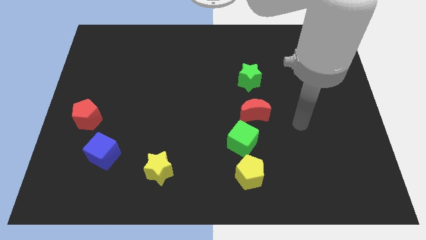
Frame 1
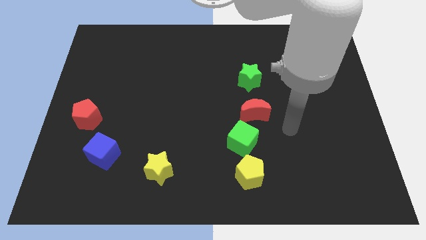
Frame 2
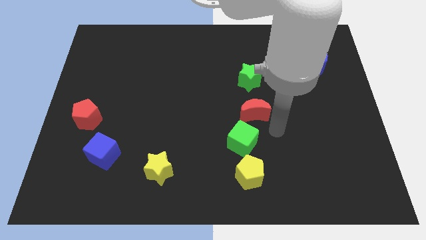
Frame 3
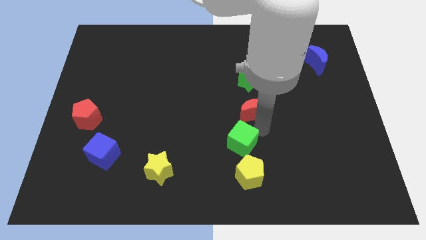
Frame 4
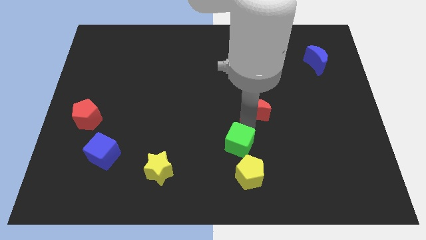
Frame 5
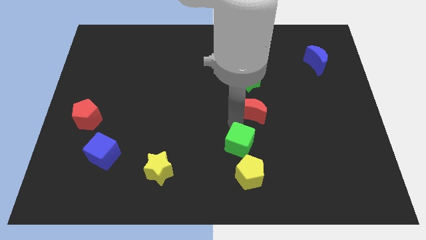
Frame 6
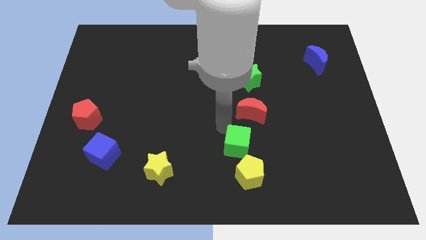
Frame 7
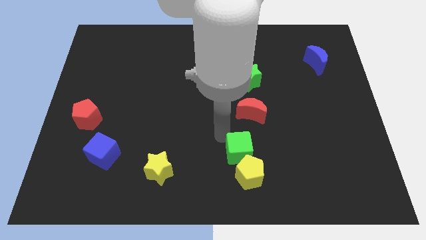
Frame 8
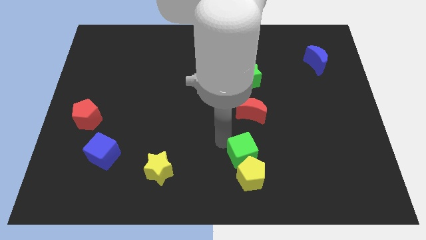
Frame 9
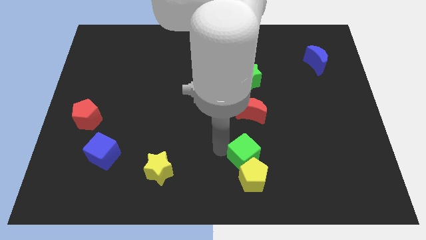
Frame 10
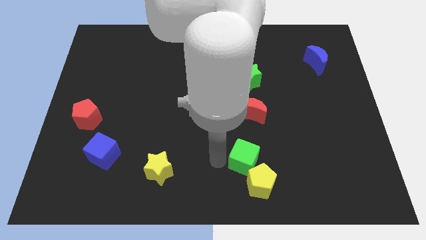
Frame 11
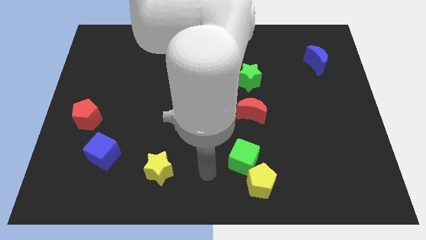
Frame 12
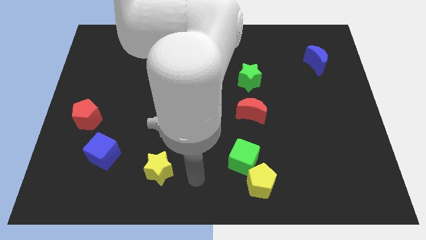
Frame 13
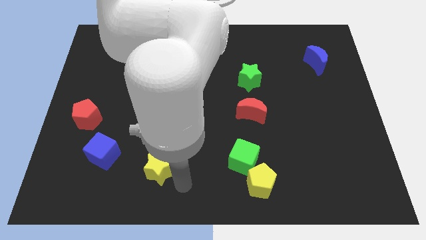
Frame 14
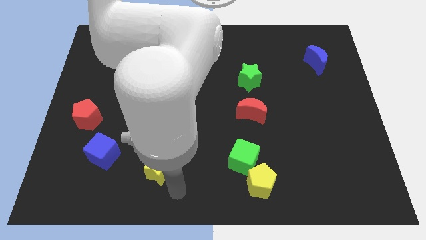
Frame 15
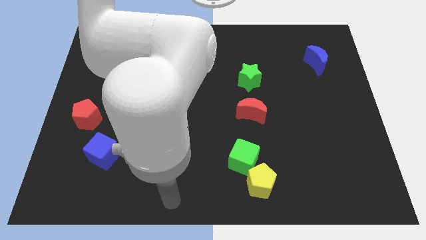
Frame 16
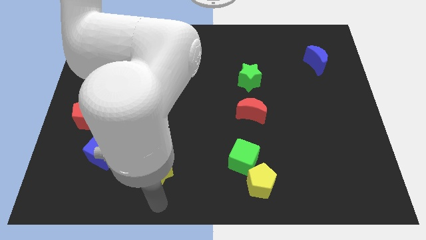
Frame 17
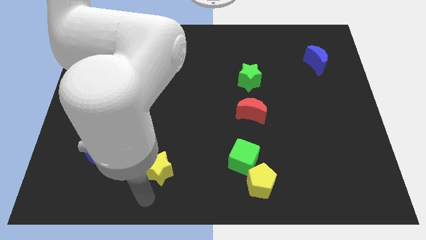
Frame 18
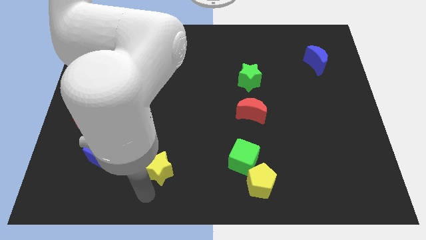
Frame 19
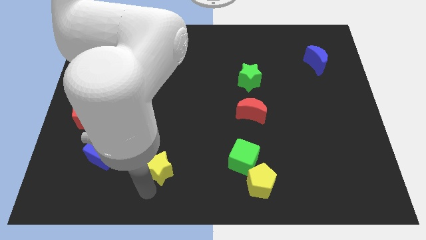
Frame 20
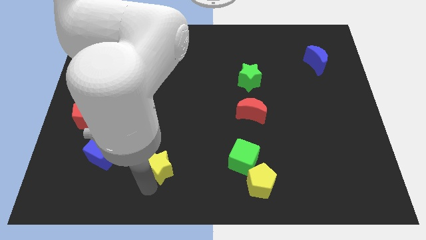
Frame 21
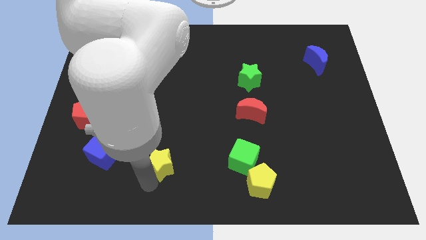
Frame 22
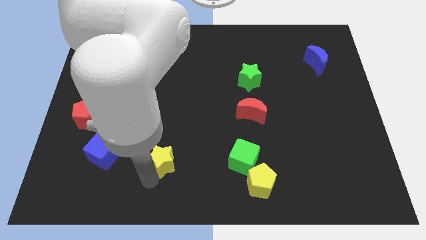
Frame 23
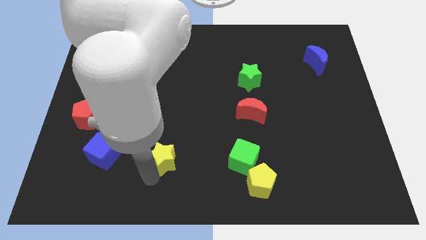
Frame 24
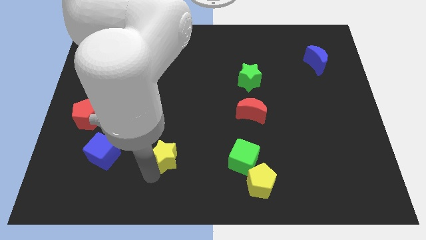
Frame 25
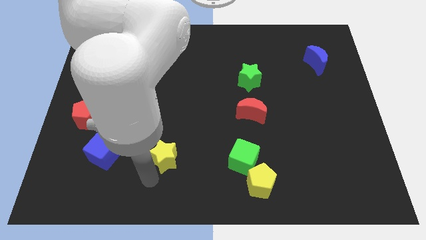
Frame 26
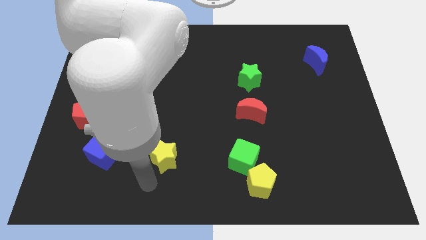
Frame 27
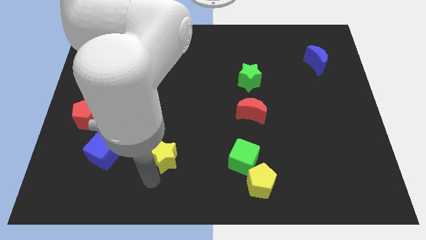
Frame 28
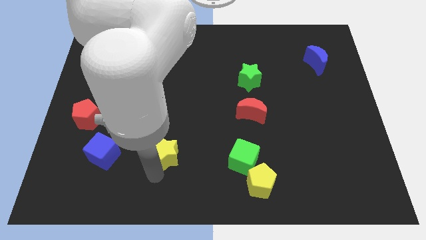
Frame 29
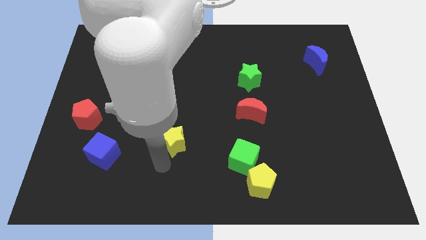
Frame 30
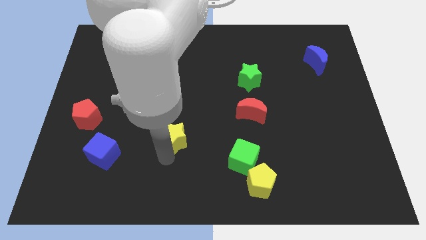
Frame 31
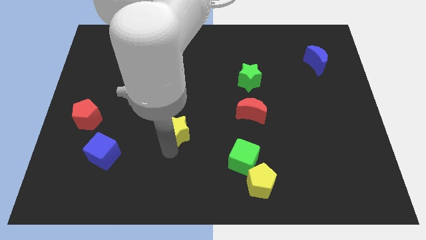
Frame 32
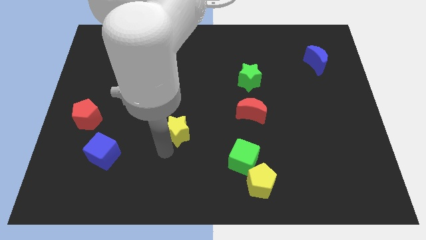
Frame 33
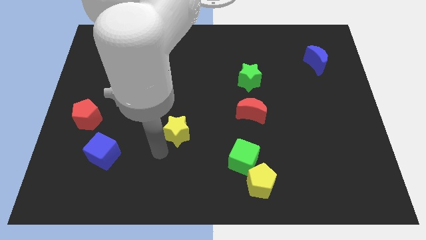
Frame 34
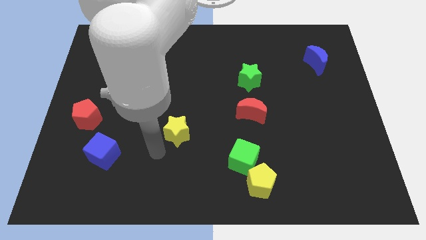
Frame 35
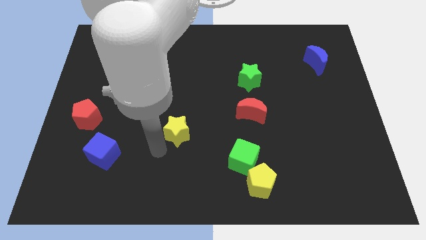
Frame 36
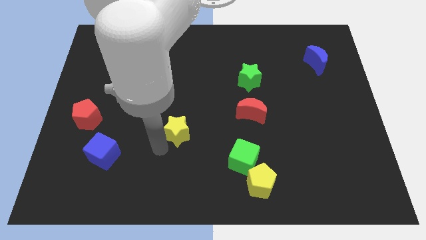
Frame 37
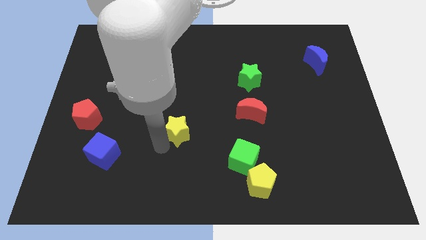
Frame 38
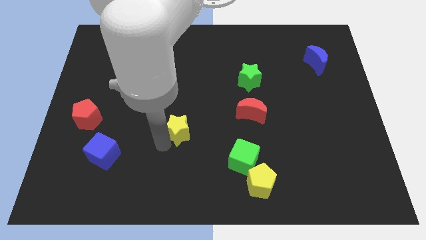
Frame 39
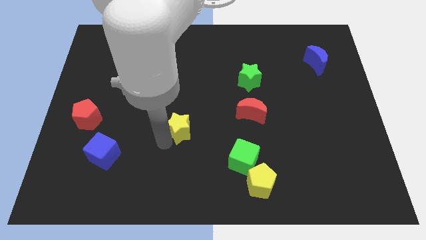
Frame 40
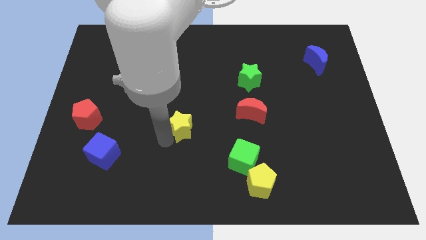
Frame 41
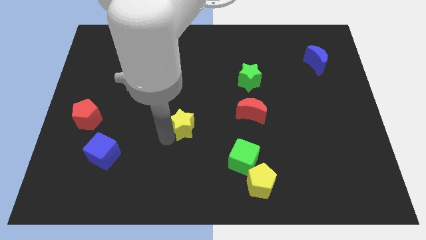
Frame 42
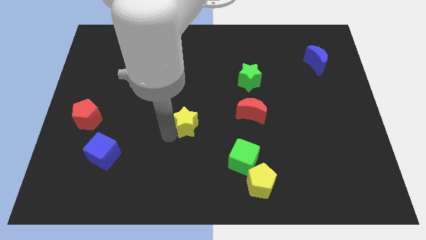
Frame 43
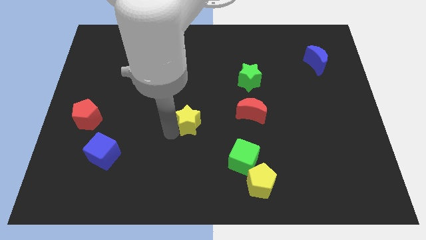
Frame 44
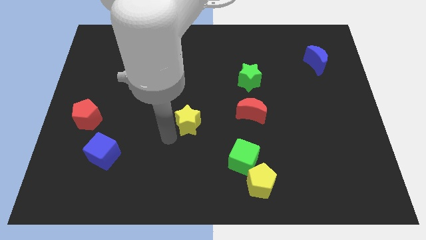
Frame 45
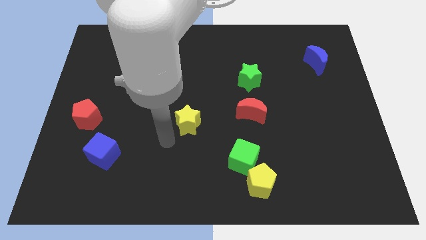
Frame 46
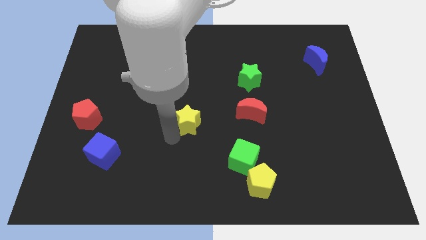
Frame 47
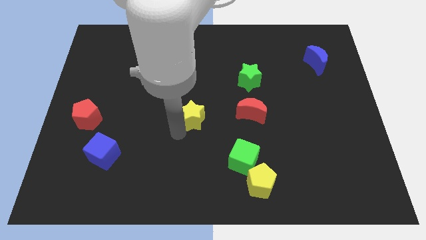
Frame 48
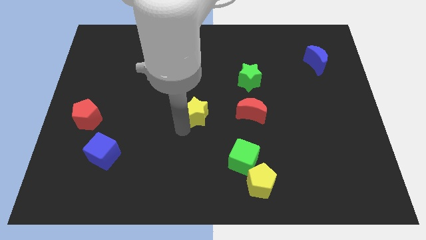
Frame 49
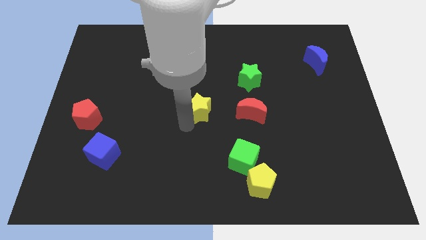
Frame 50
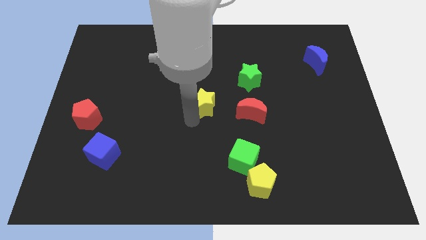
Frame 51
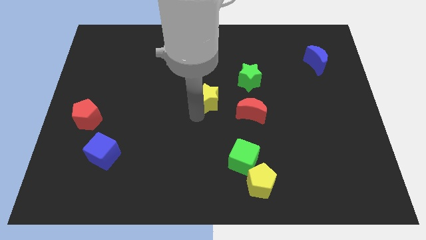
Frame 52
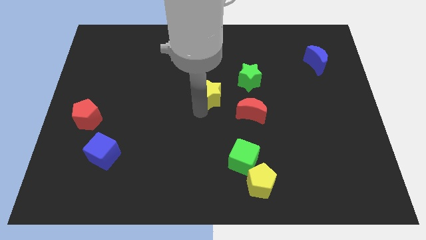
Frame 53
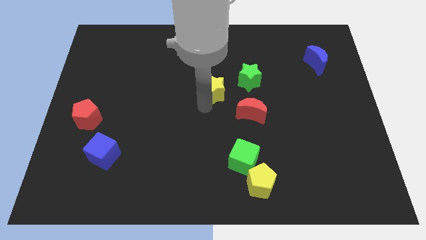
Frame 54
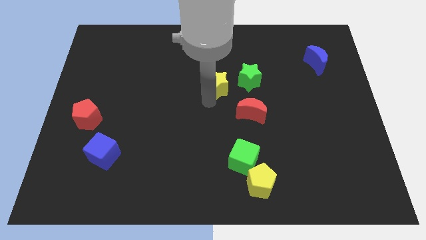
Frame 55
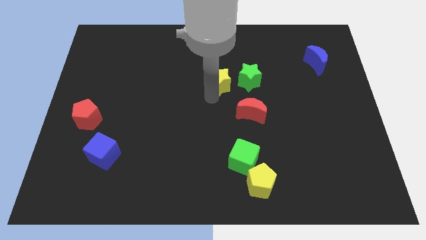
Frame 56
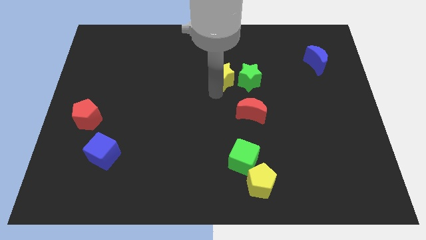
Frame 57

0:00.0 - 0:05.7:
move the yellow star to the top left side of the green star

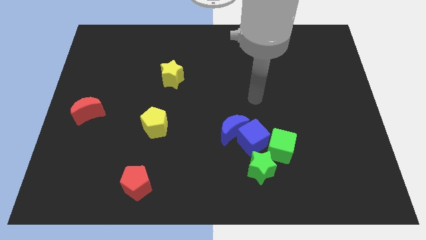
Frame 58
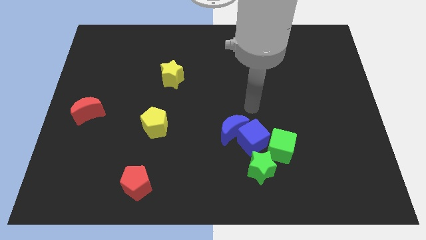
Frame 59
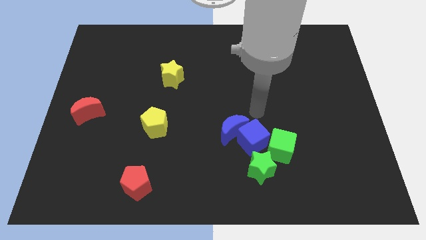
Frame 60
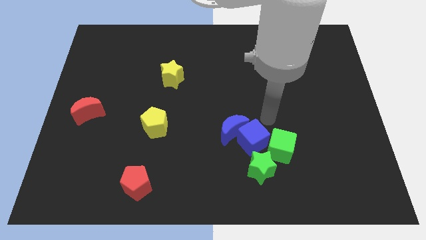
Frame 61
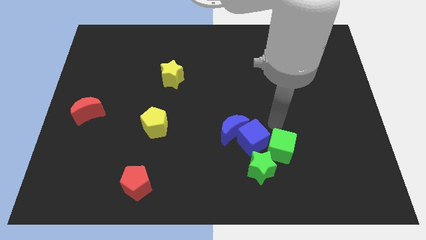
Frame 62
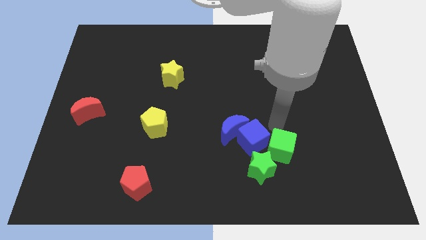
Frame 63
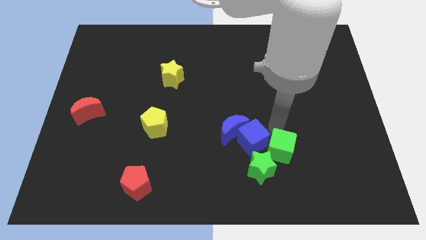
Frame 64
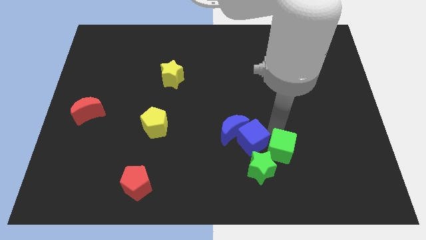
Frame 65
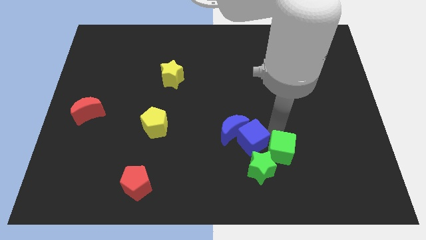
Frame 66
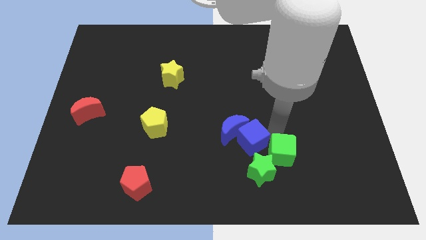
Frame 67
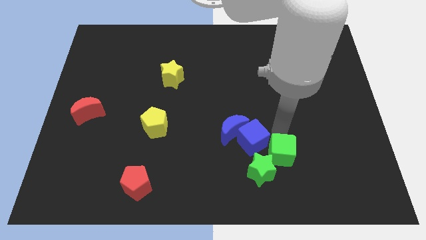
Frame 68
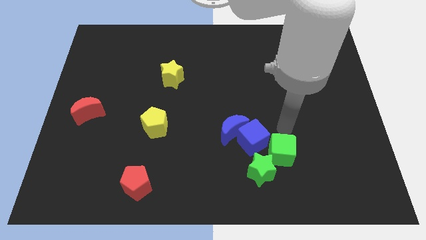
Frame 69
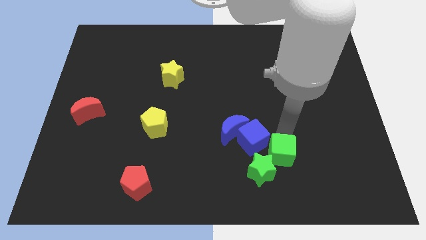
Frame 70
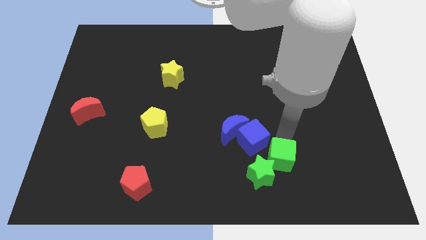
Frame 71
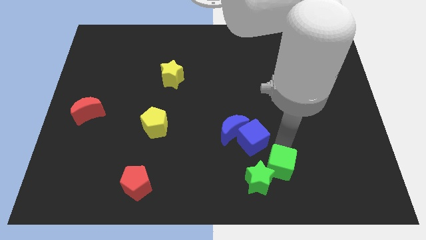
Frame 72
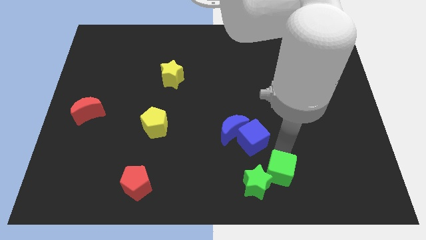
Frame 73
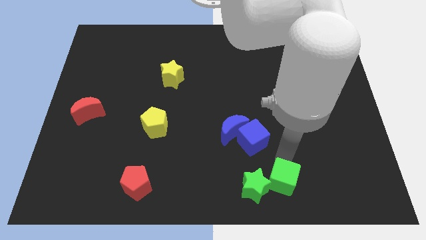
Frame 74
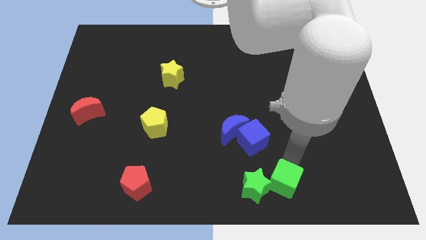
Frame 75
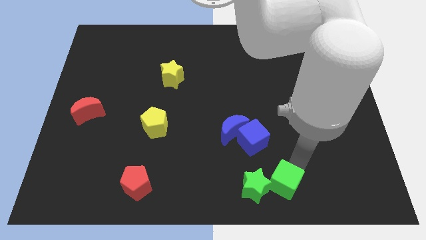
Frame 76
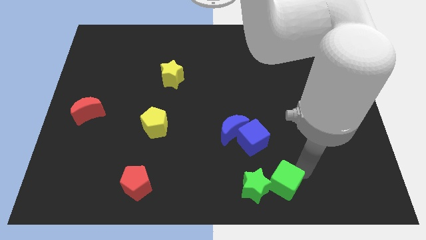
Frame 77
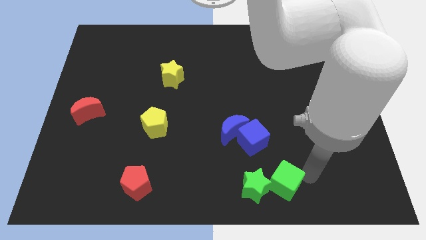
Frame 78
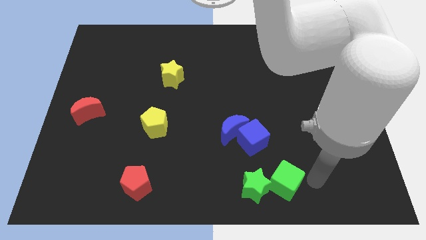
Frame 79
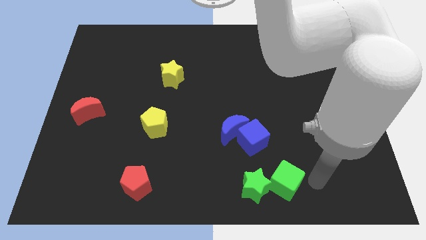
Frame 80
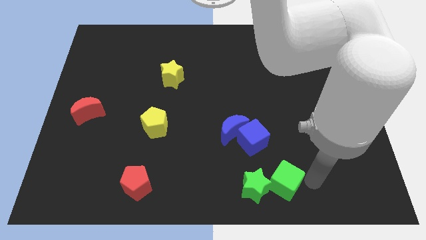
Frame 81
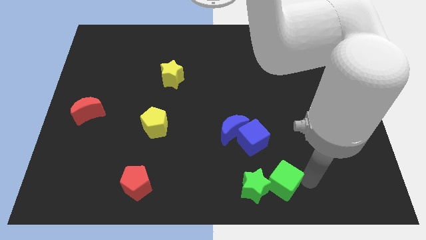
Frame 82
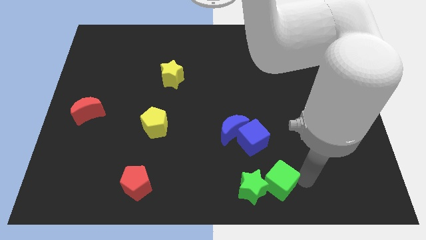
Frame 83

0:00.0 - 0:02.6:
put the green cube to the bottom side of the blue cube
